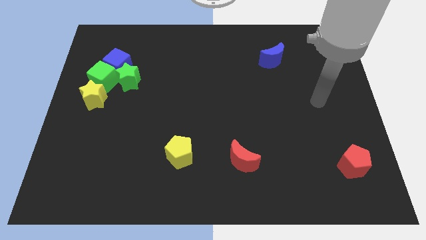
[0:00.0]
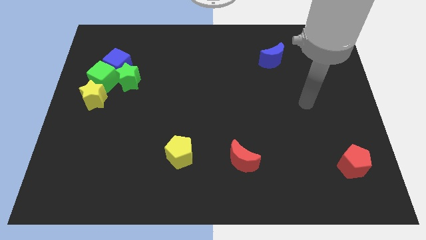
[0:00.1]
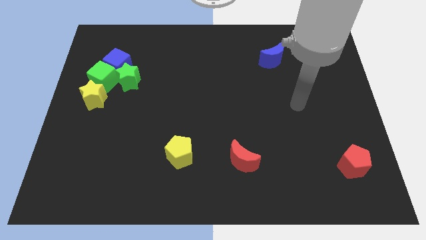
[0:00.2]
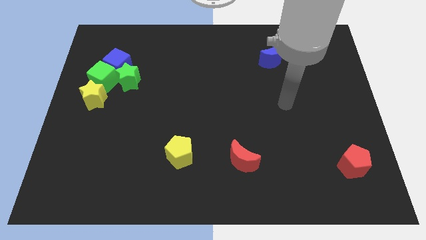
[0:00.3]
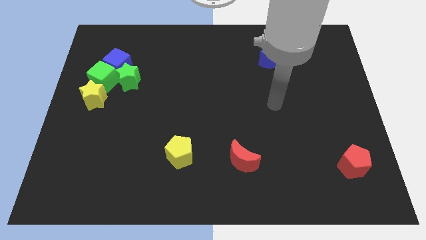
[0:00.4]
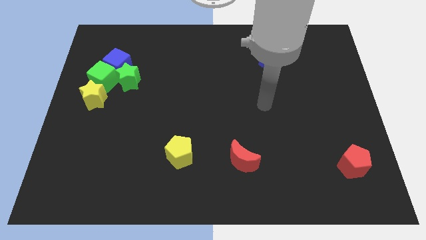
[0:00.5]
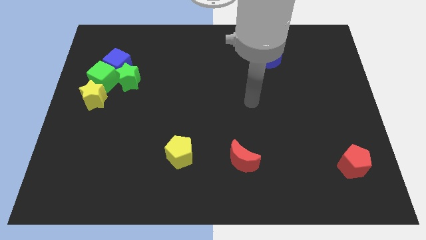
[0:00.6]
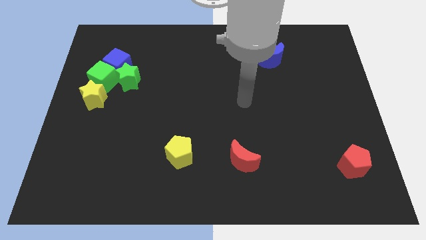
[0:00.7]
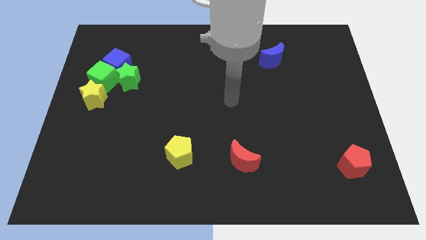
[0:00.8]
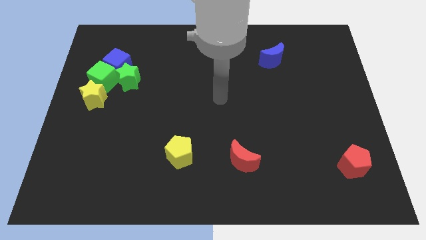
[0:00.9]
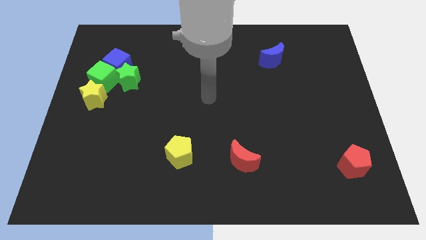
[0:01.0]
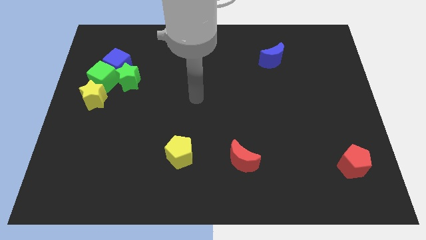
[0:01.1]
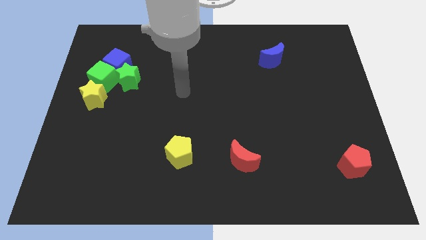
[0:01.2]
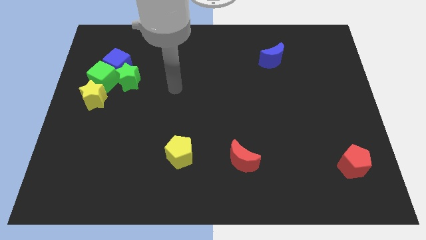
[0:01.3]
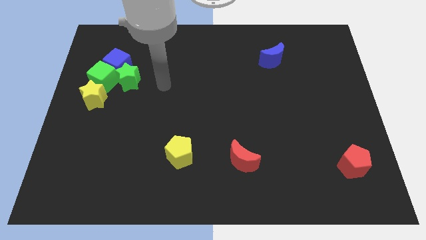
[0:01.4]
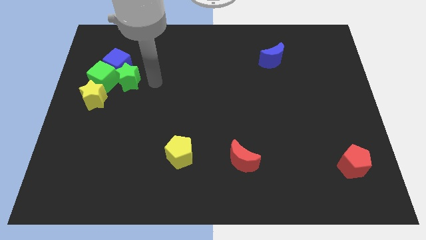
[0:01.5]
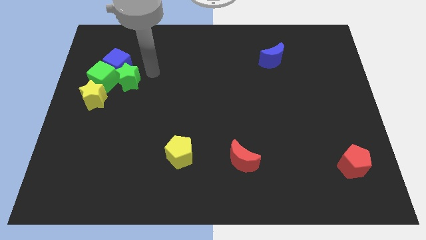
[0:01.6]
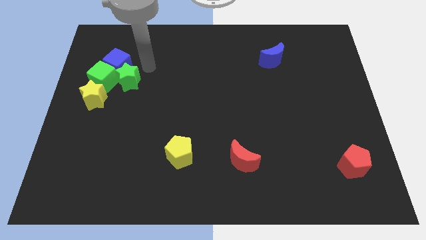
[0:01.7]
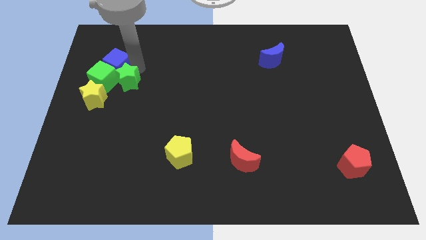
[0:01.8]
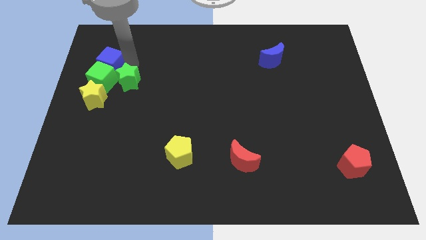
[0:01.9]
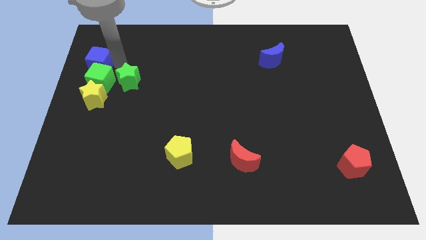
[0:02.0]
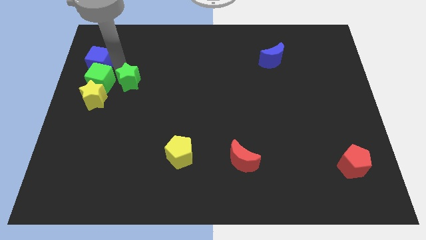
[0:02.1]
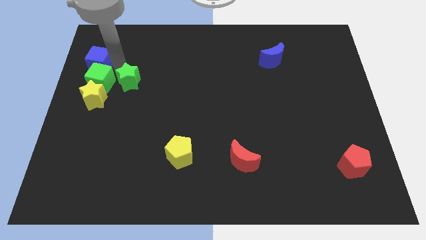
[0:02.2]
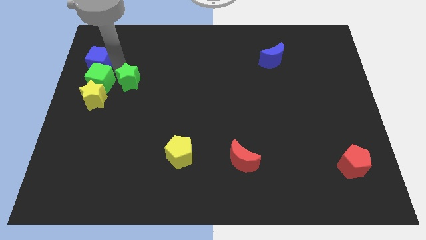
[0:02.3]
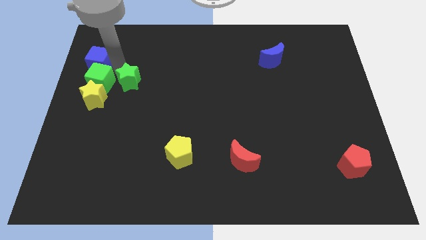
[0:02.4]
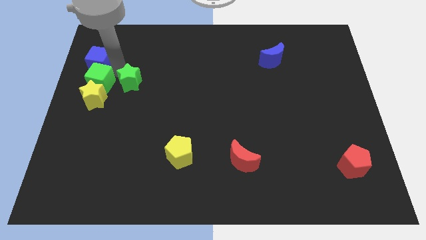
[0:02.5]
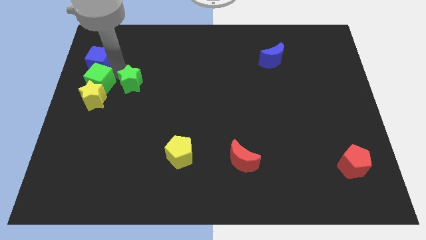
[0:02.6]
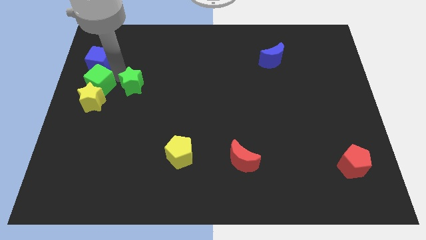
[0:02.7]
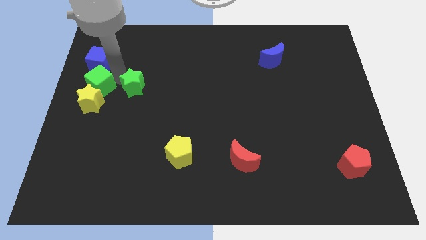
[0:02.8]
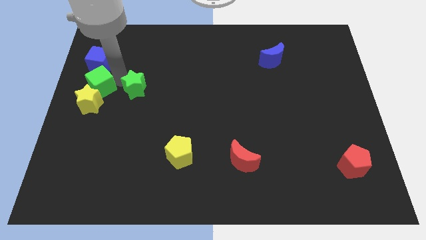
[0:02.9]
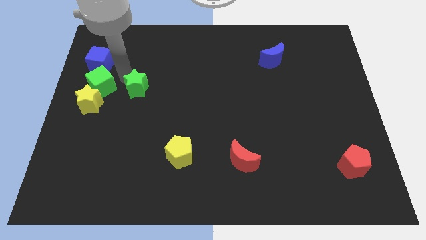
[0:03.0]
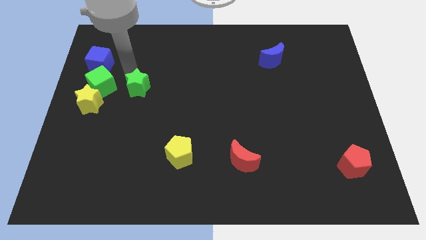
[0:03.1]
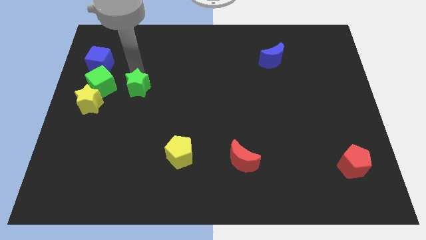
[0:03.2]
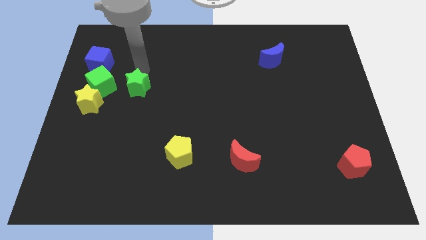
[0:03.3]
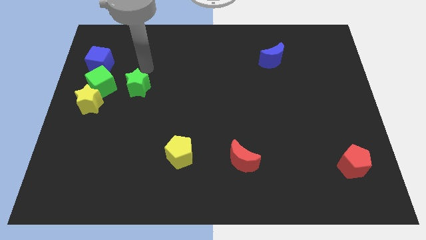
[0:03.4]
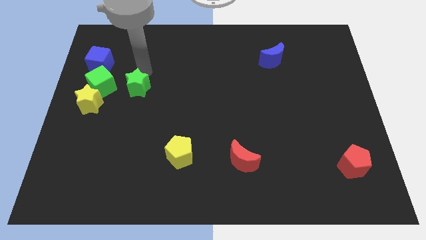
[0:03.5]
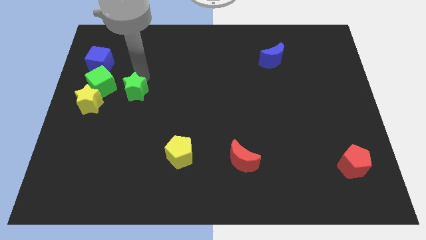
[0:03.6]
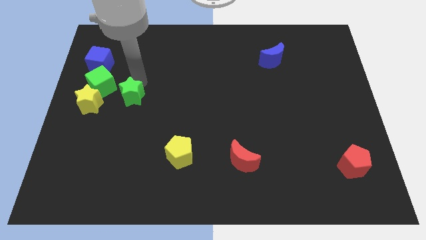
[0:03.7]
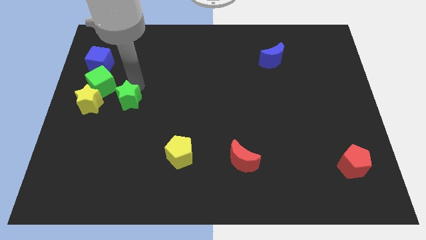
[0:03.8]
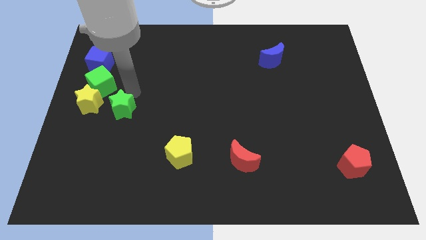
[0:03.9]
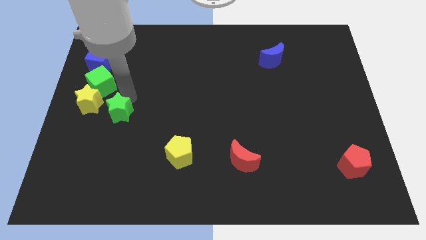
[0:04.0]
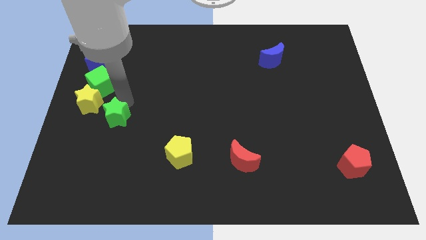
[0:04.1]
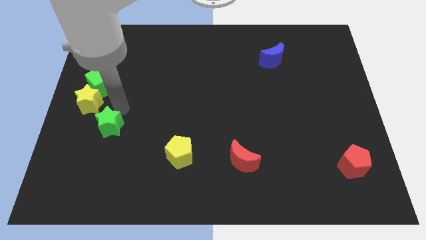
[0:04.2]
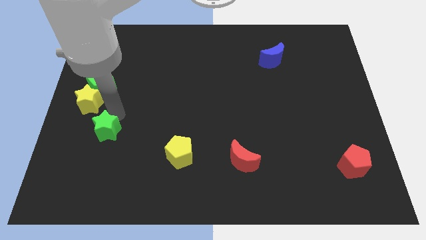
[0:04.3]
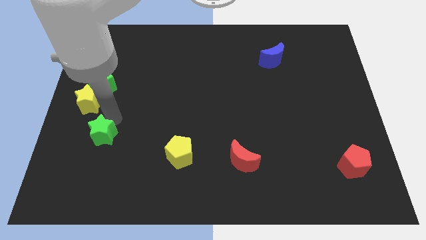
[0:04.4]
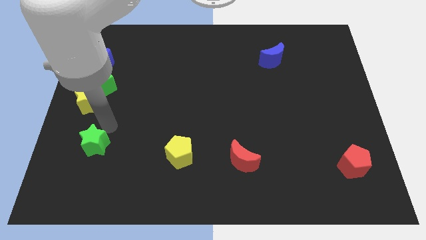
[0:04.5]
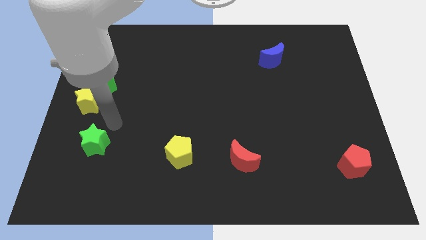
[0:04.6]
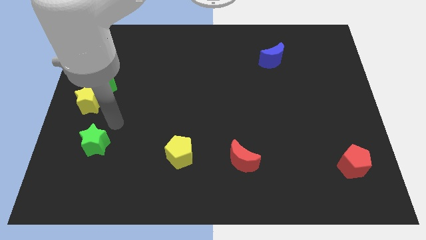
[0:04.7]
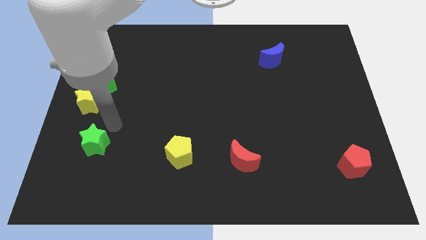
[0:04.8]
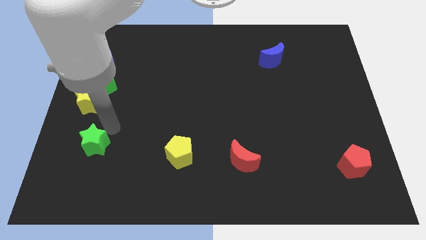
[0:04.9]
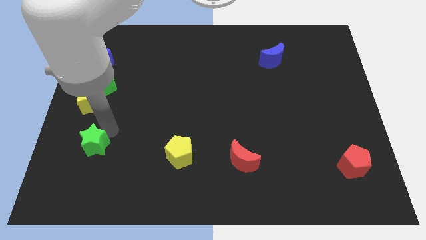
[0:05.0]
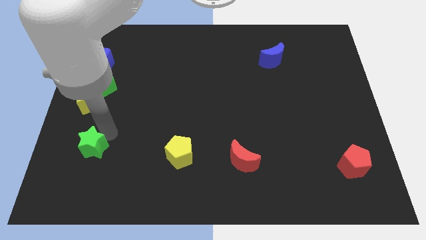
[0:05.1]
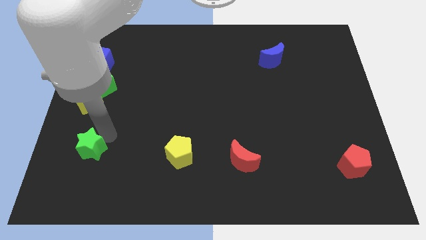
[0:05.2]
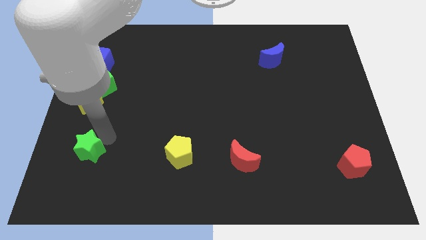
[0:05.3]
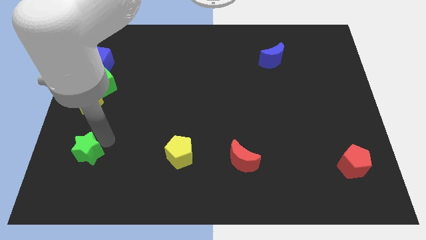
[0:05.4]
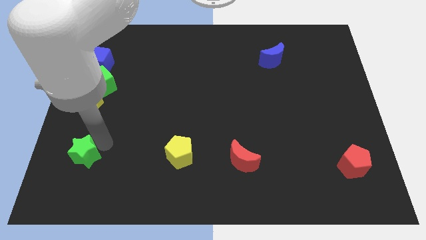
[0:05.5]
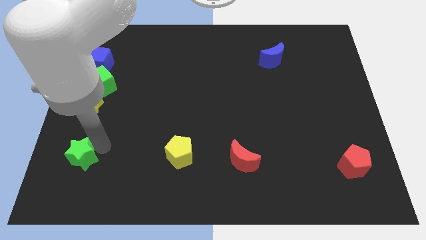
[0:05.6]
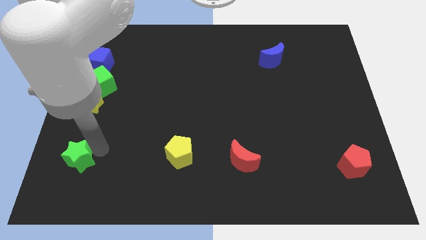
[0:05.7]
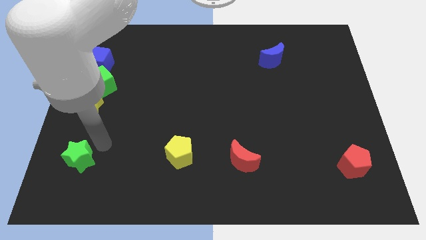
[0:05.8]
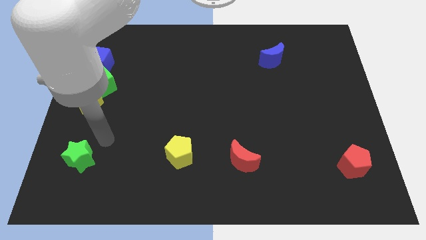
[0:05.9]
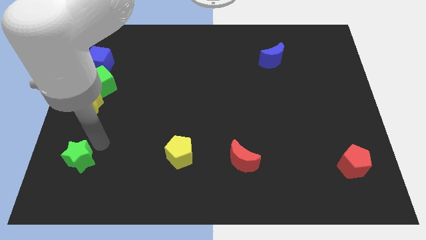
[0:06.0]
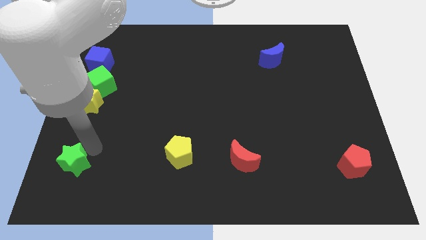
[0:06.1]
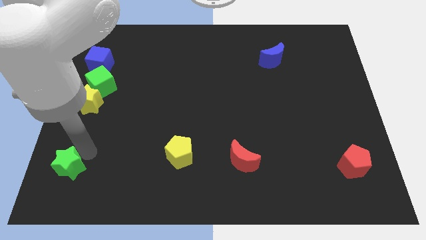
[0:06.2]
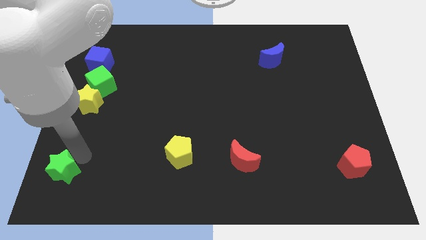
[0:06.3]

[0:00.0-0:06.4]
push the green star to the bottom left

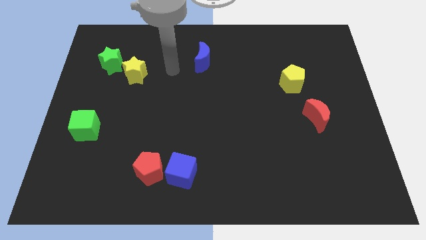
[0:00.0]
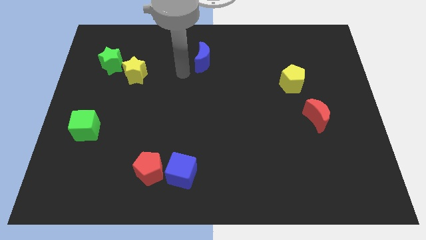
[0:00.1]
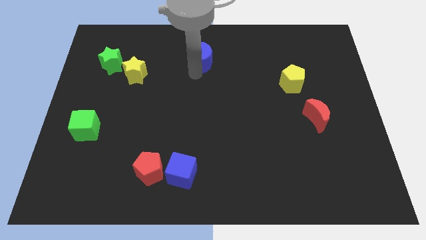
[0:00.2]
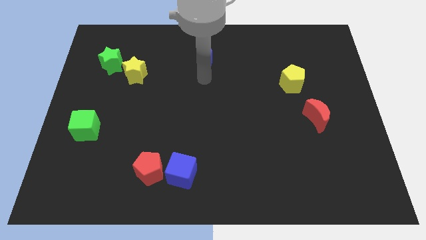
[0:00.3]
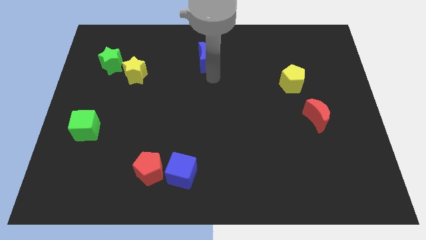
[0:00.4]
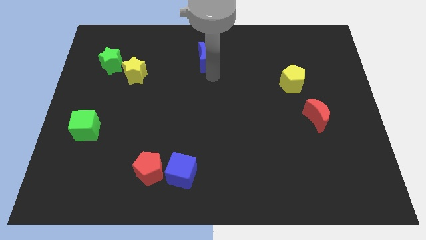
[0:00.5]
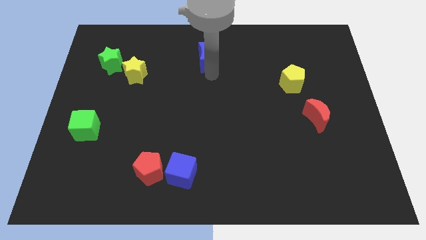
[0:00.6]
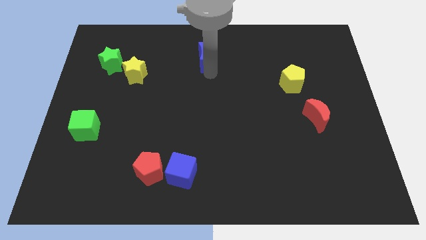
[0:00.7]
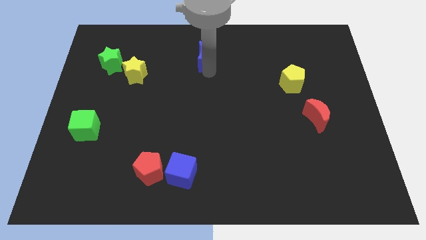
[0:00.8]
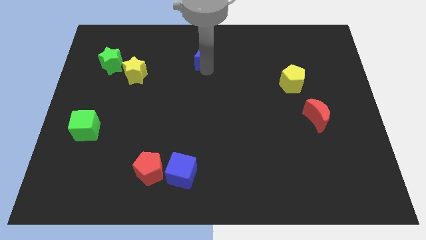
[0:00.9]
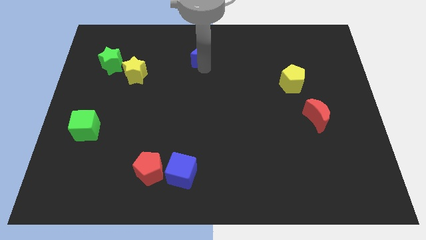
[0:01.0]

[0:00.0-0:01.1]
move the blue moon to the top
